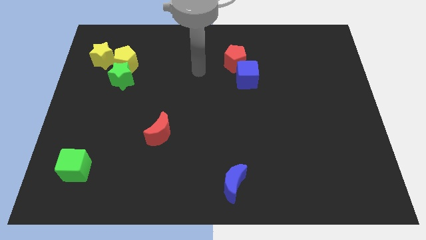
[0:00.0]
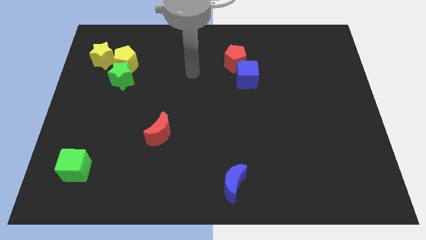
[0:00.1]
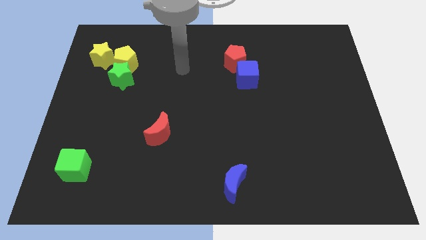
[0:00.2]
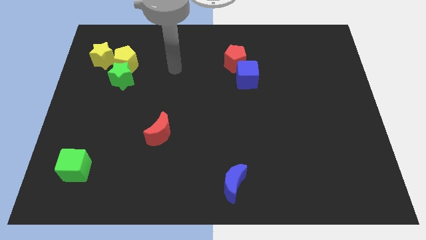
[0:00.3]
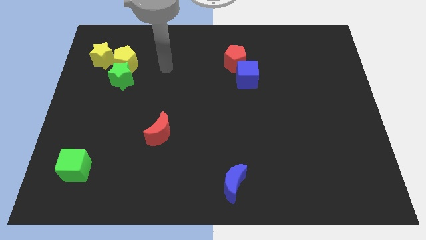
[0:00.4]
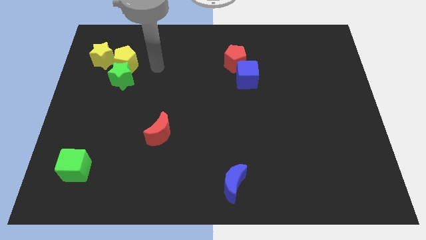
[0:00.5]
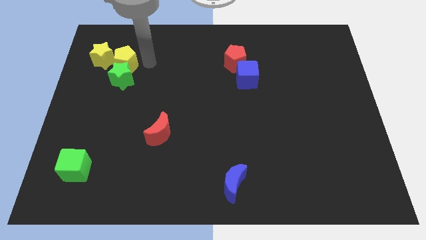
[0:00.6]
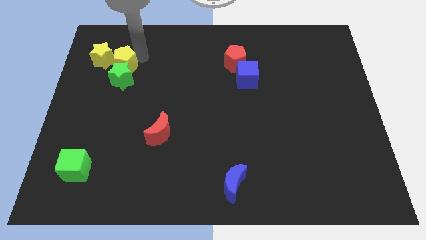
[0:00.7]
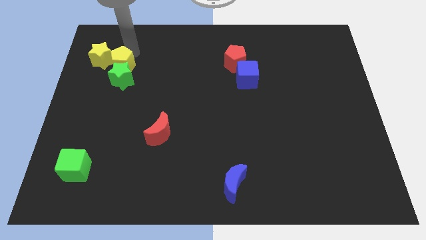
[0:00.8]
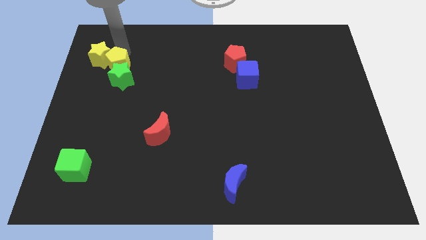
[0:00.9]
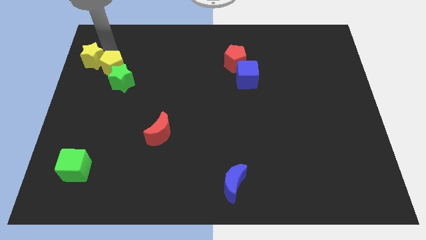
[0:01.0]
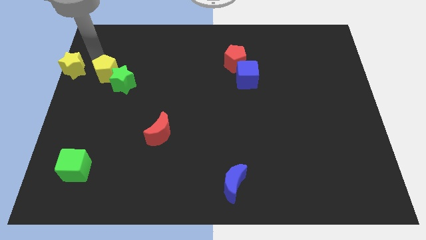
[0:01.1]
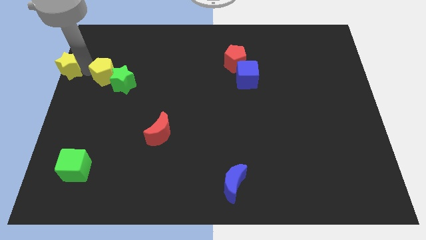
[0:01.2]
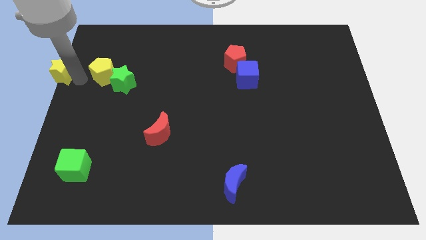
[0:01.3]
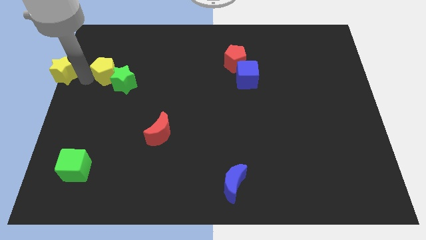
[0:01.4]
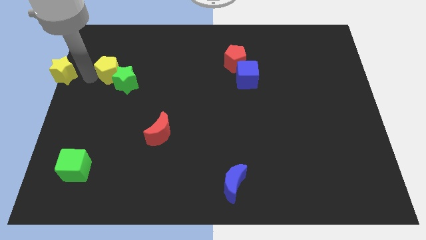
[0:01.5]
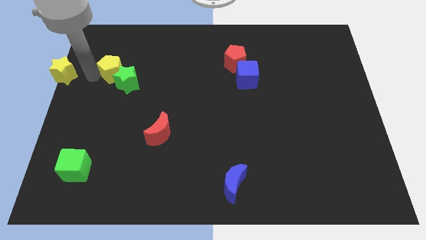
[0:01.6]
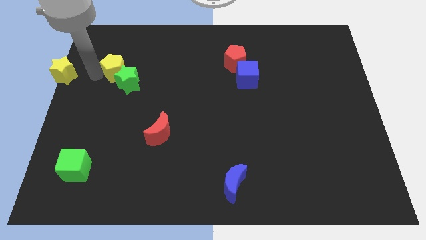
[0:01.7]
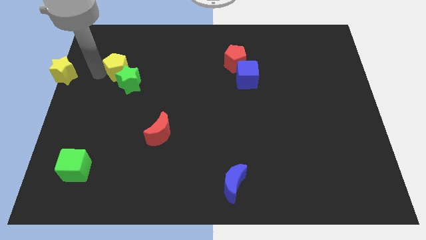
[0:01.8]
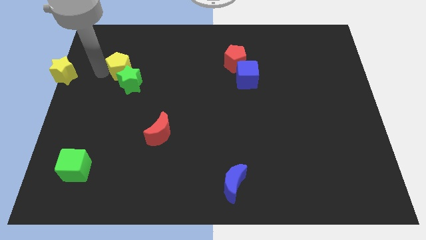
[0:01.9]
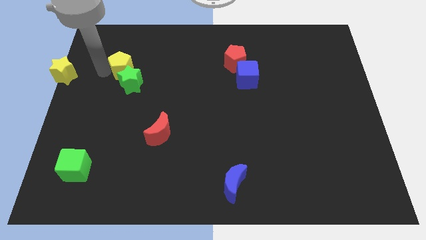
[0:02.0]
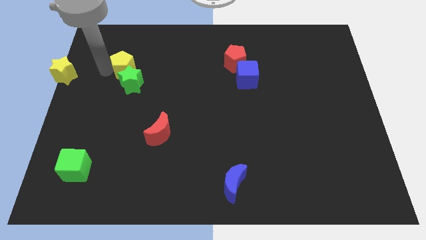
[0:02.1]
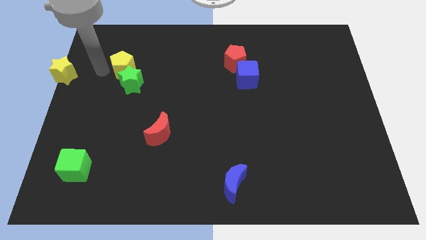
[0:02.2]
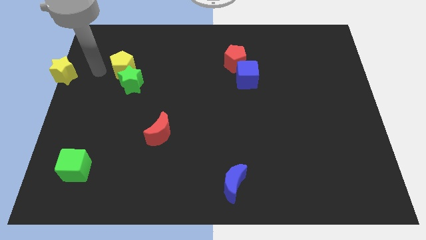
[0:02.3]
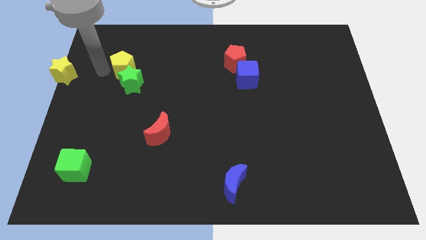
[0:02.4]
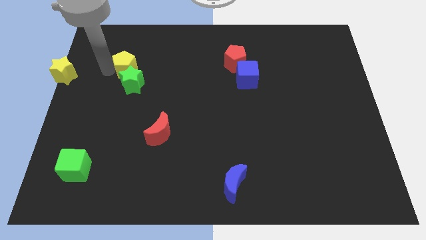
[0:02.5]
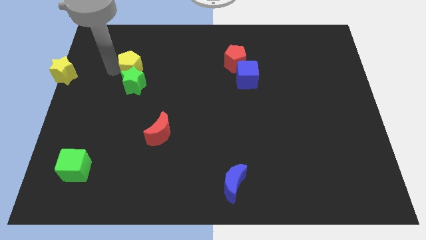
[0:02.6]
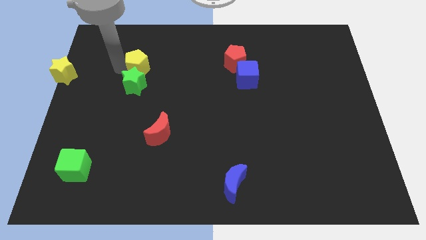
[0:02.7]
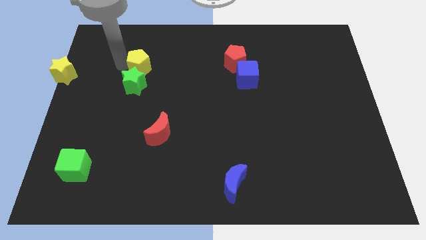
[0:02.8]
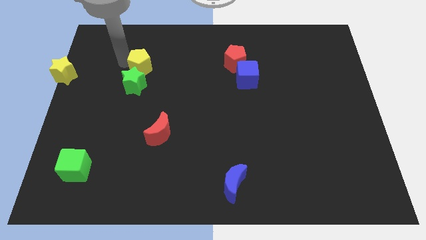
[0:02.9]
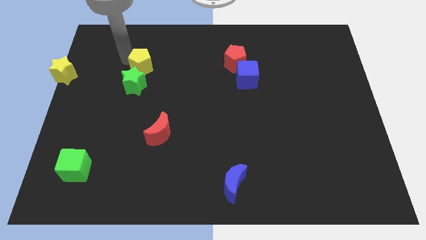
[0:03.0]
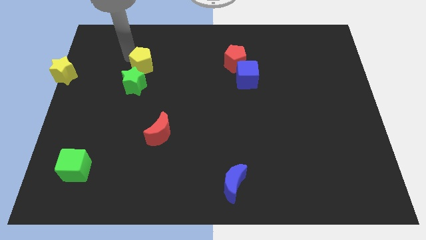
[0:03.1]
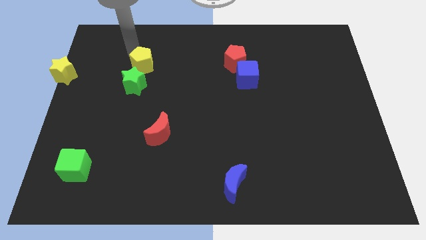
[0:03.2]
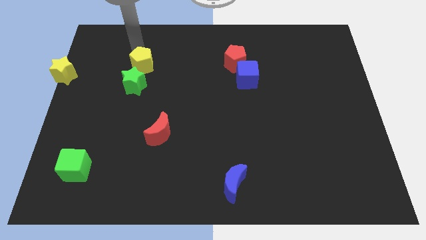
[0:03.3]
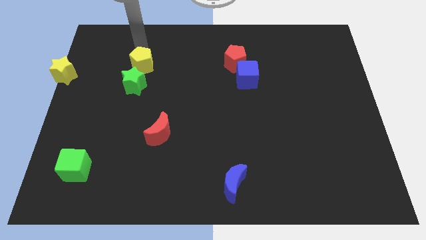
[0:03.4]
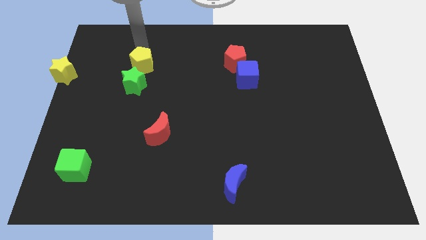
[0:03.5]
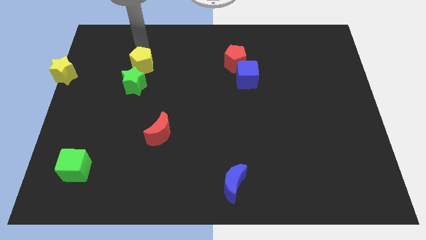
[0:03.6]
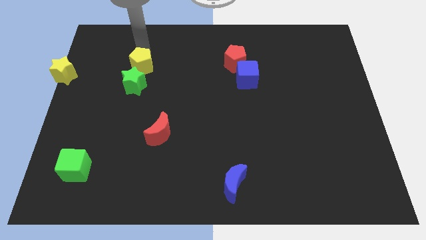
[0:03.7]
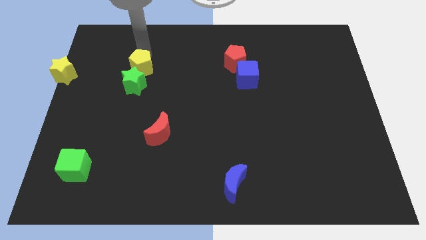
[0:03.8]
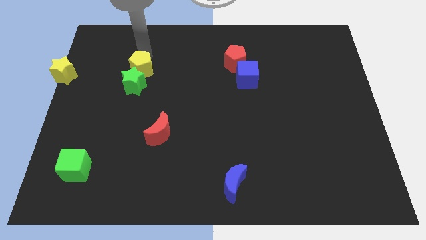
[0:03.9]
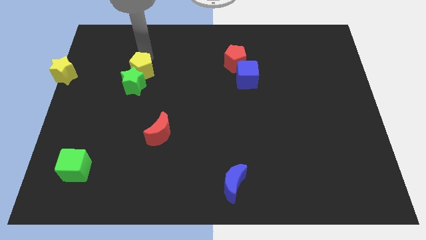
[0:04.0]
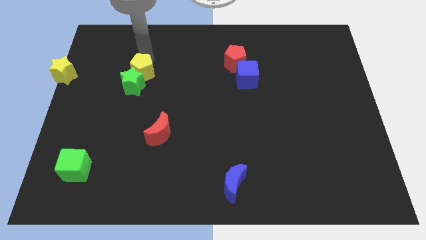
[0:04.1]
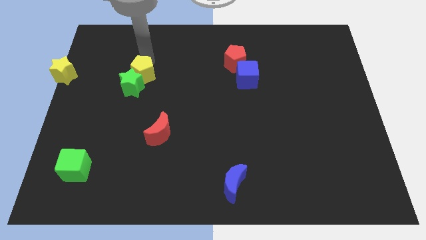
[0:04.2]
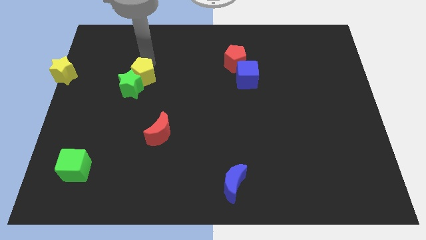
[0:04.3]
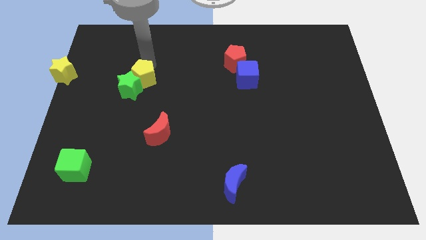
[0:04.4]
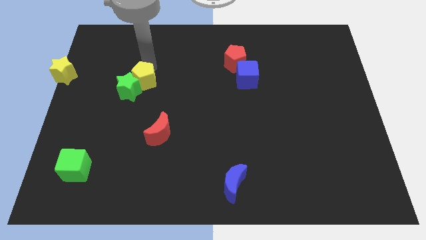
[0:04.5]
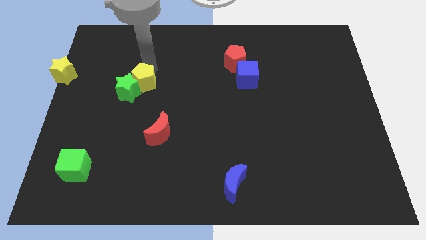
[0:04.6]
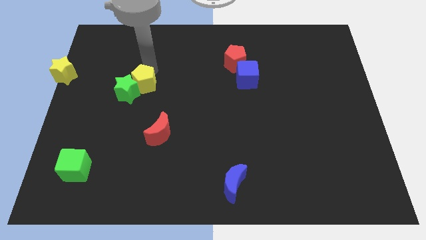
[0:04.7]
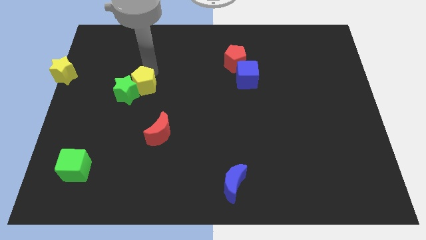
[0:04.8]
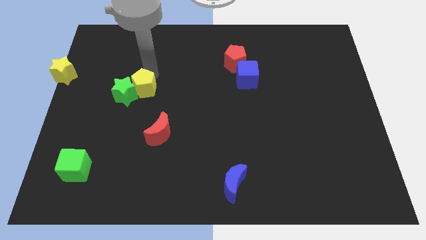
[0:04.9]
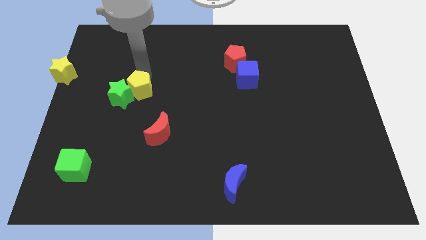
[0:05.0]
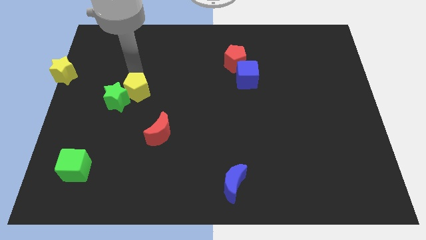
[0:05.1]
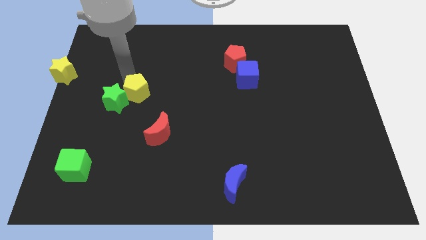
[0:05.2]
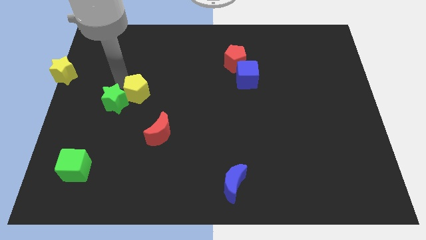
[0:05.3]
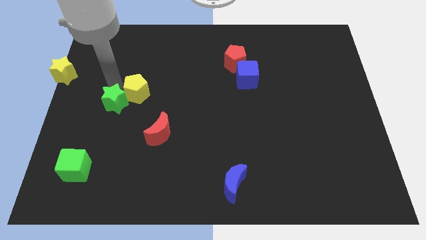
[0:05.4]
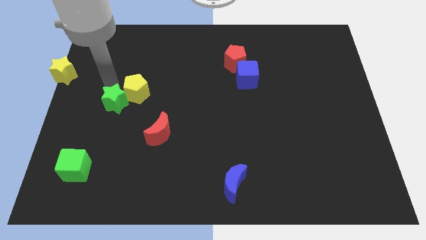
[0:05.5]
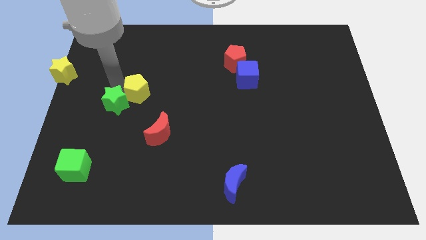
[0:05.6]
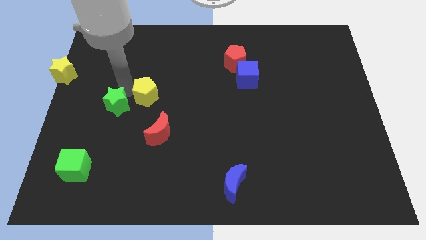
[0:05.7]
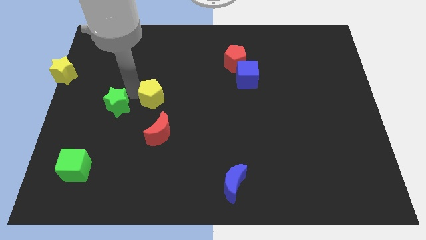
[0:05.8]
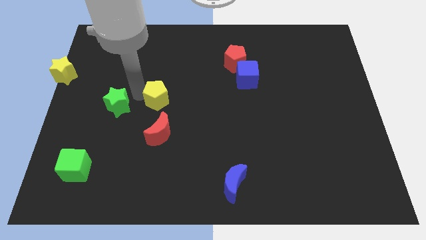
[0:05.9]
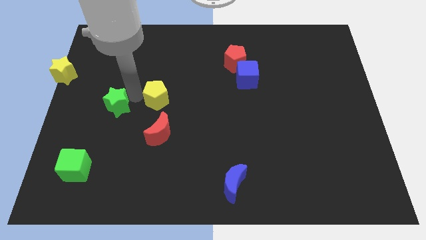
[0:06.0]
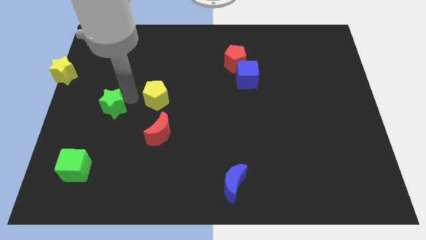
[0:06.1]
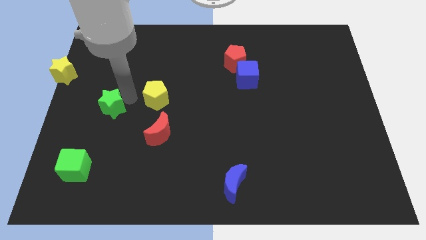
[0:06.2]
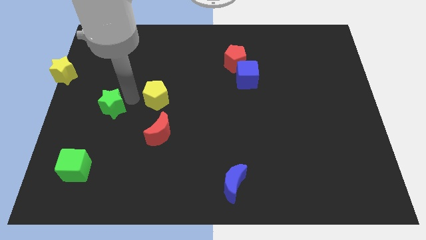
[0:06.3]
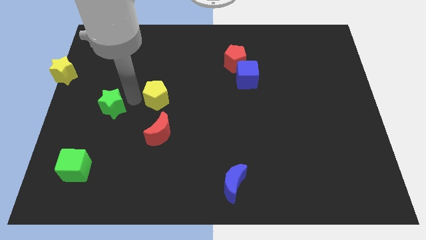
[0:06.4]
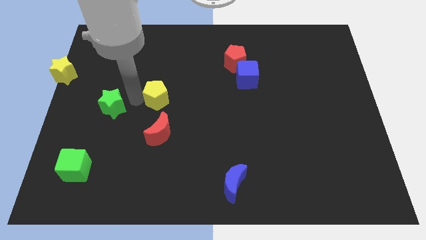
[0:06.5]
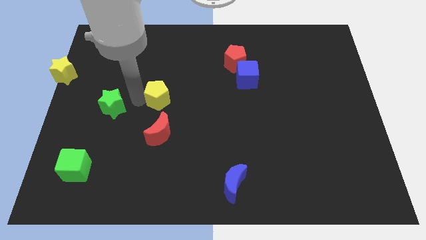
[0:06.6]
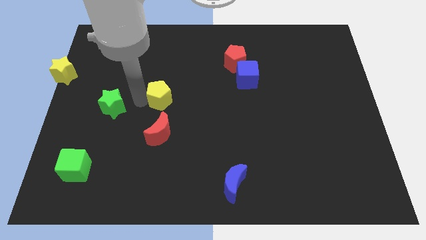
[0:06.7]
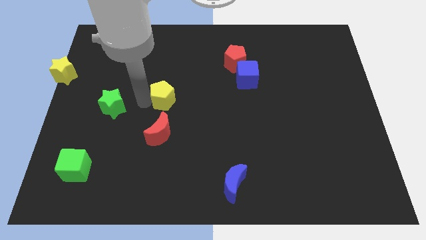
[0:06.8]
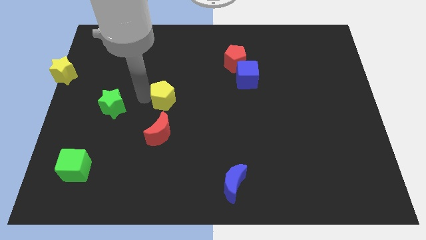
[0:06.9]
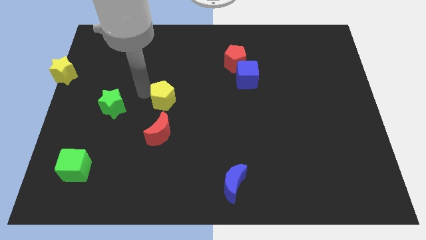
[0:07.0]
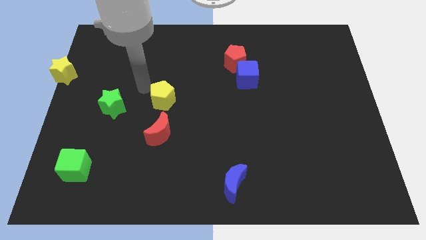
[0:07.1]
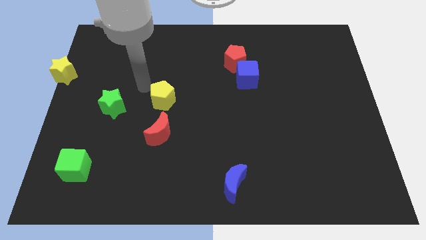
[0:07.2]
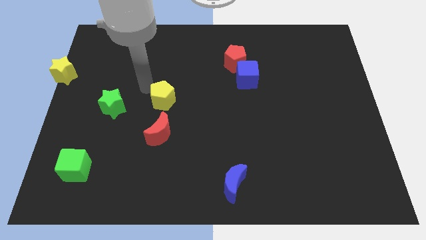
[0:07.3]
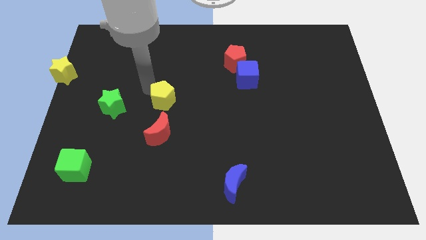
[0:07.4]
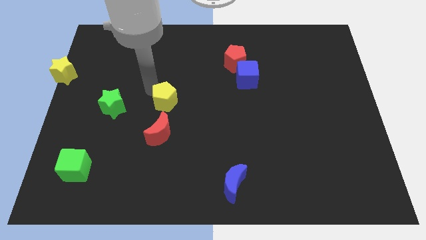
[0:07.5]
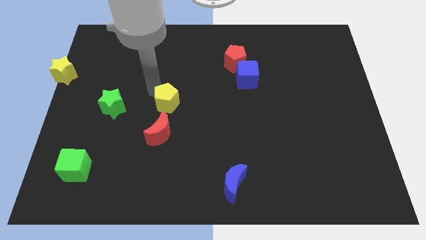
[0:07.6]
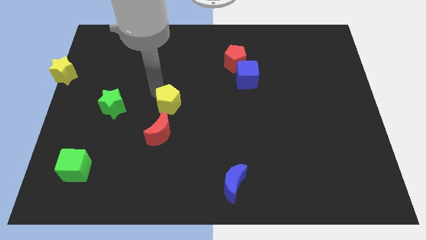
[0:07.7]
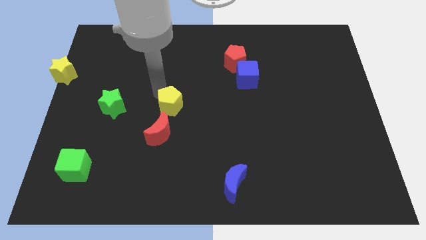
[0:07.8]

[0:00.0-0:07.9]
push the yellow pentagon to the top right of the red moon
